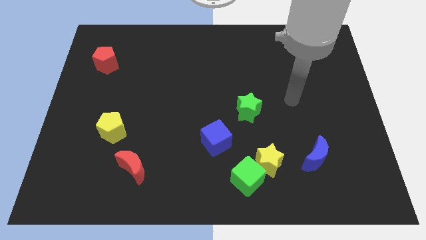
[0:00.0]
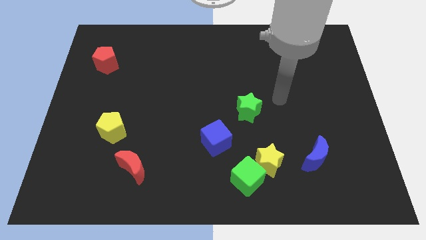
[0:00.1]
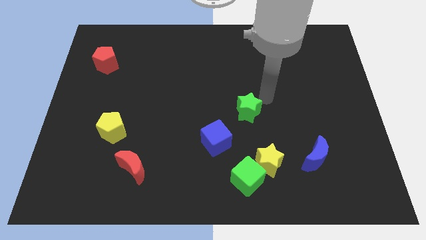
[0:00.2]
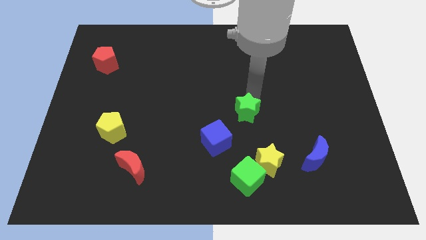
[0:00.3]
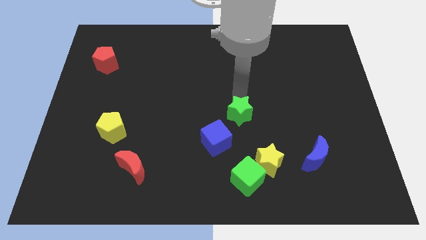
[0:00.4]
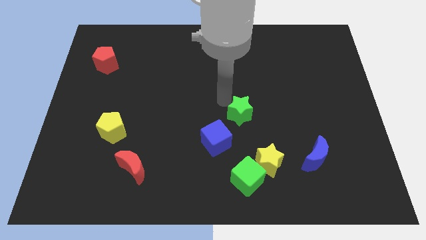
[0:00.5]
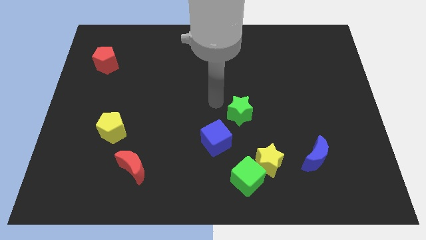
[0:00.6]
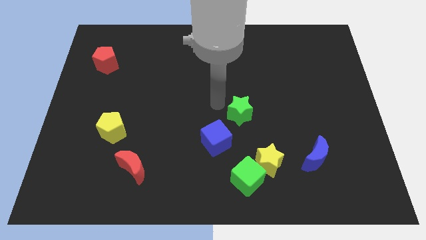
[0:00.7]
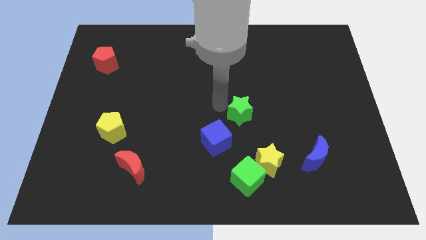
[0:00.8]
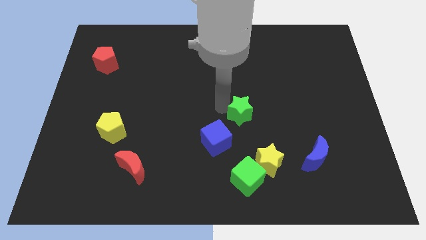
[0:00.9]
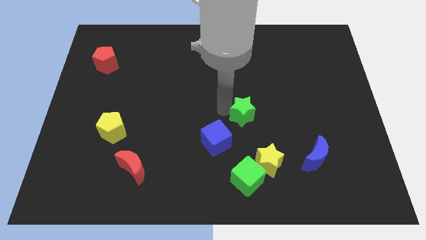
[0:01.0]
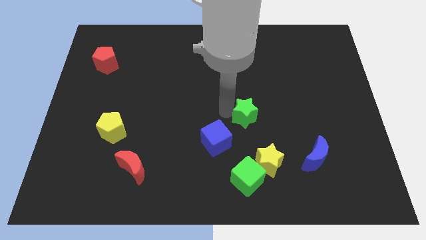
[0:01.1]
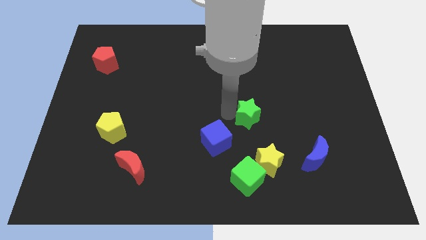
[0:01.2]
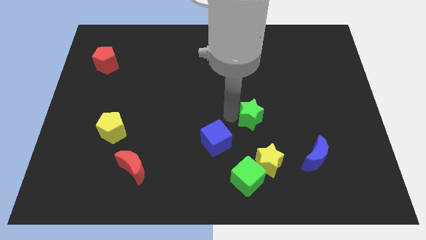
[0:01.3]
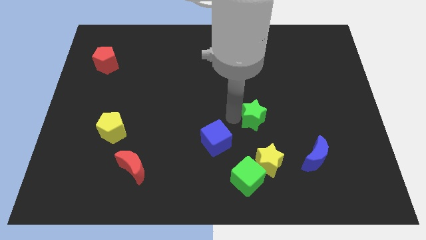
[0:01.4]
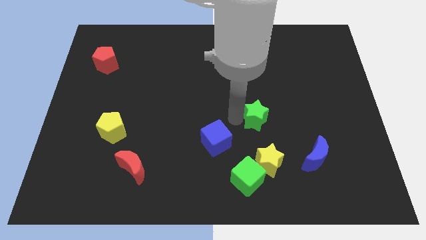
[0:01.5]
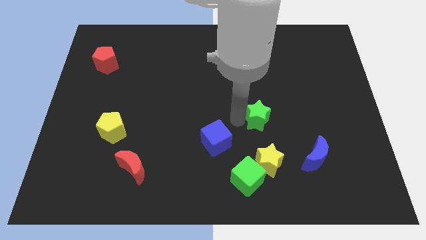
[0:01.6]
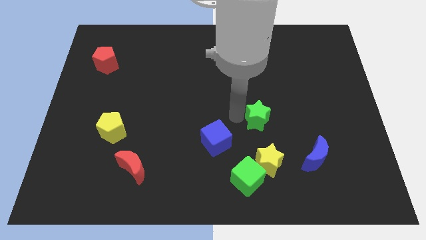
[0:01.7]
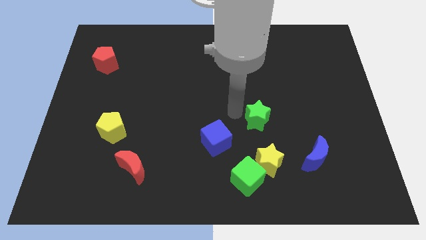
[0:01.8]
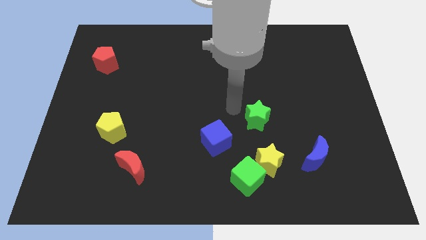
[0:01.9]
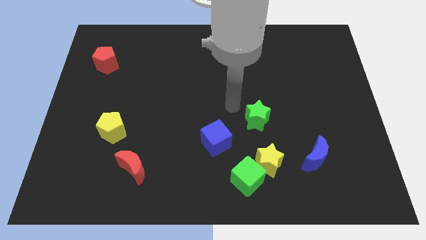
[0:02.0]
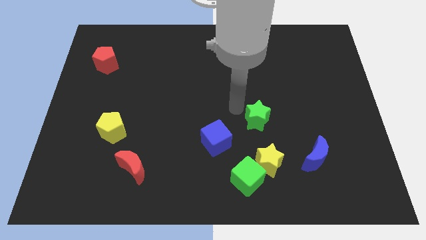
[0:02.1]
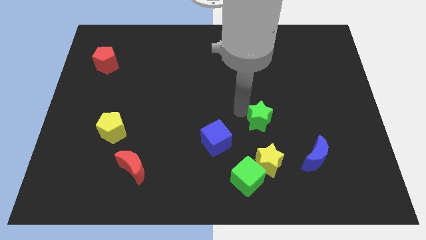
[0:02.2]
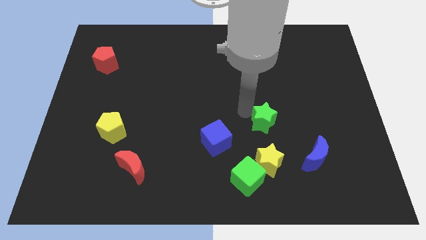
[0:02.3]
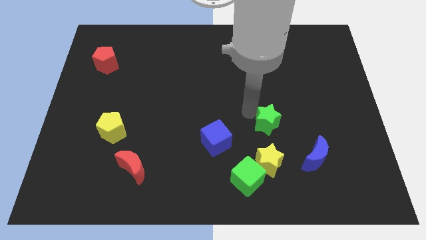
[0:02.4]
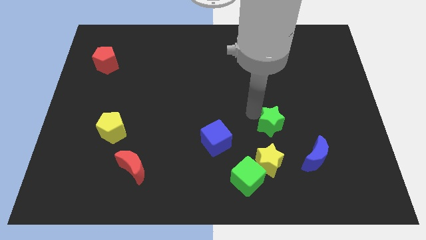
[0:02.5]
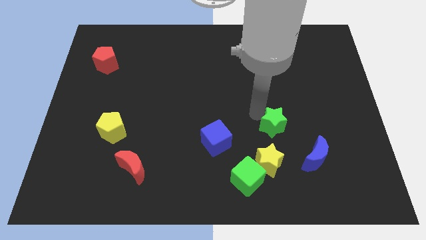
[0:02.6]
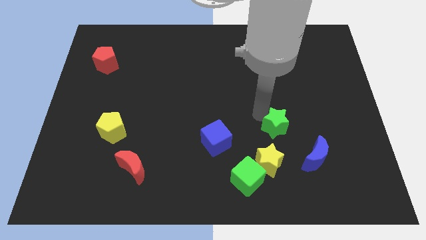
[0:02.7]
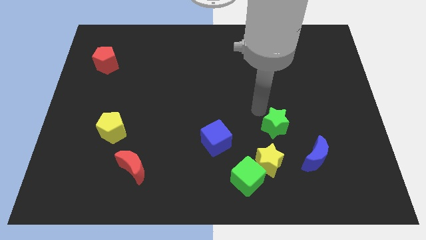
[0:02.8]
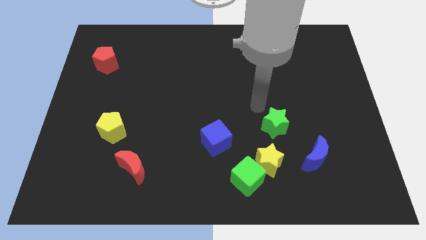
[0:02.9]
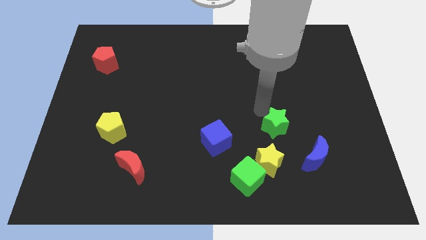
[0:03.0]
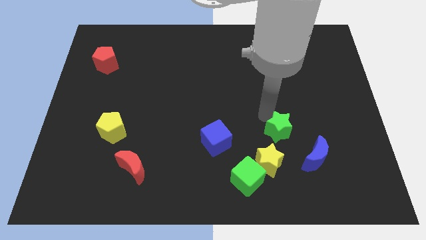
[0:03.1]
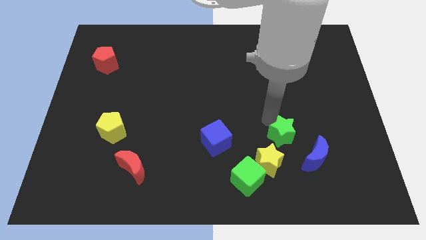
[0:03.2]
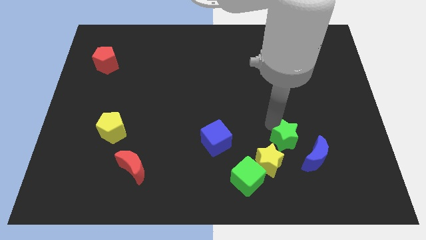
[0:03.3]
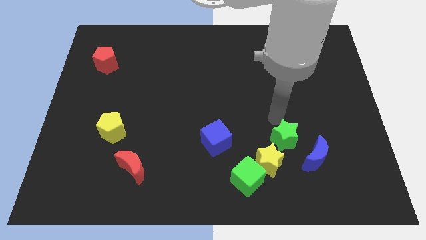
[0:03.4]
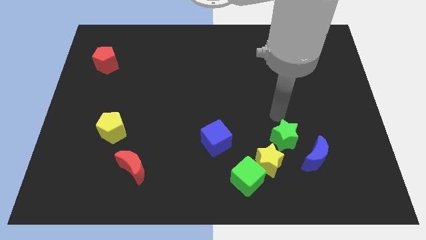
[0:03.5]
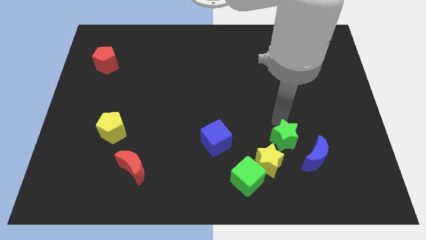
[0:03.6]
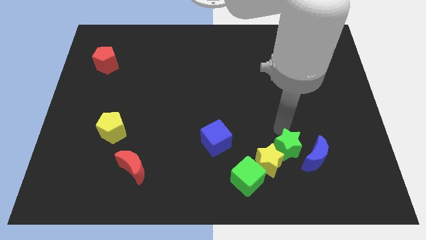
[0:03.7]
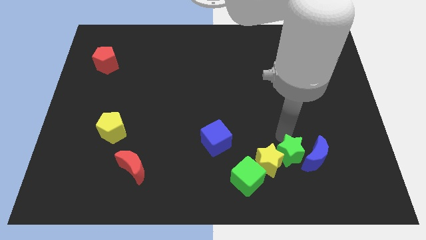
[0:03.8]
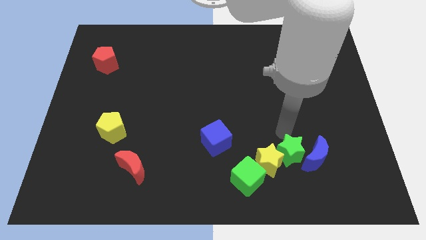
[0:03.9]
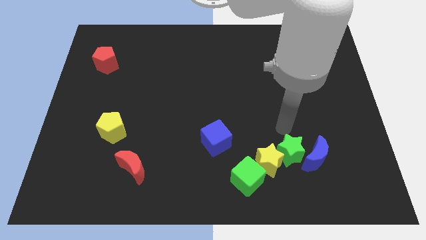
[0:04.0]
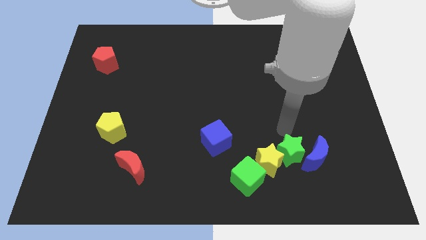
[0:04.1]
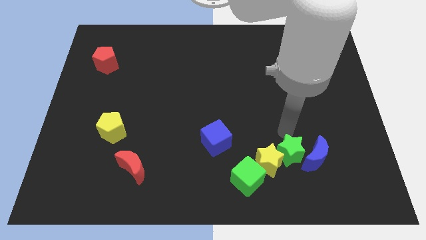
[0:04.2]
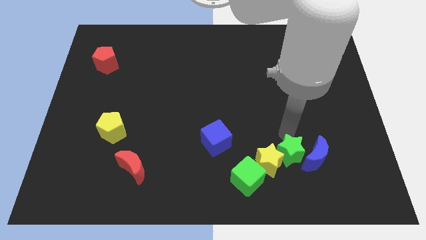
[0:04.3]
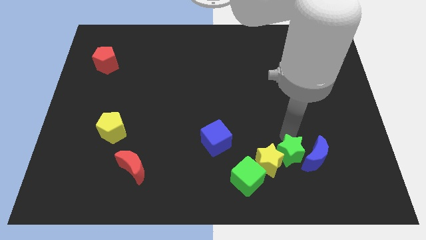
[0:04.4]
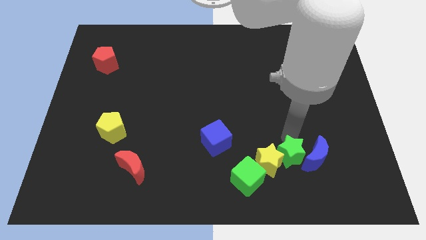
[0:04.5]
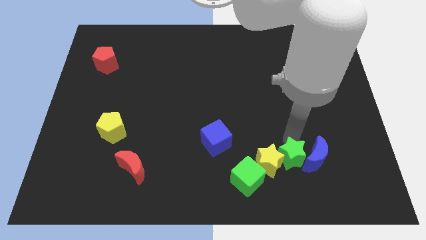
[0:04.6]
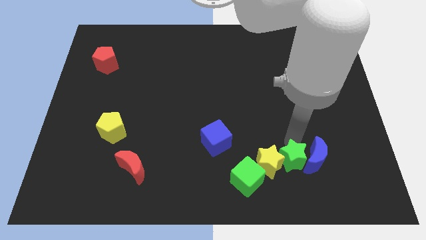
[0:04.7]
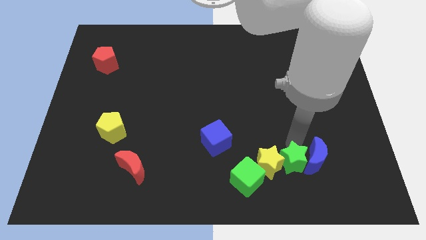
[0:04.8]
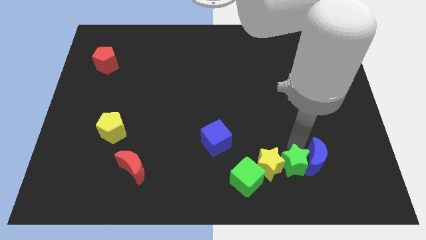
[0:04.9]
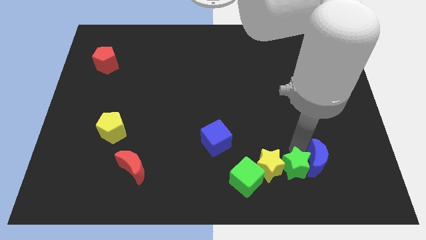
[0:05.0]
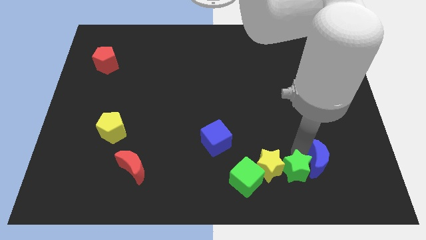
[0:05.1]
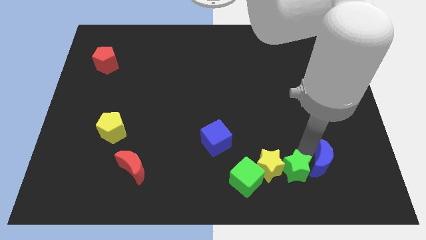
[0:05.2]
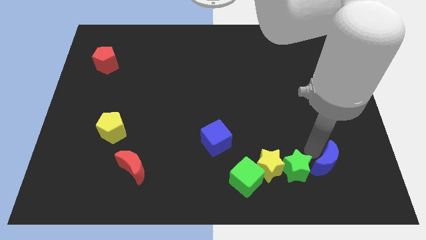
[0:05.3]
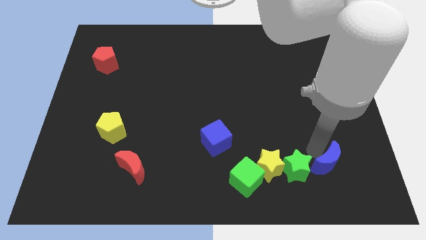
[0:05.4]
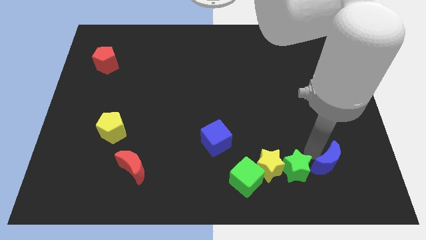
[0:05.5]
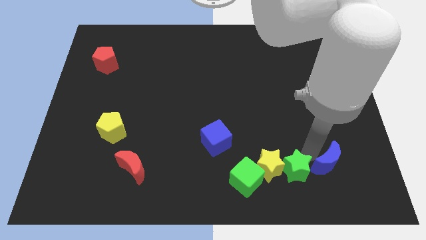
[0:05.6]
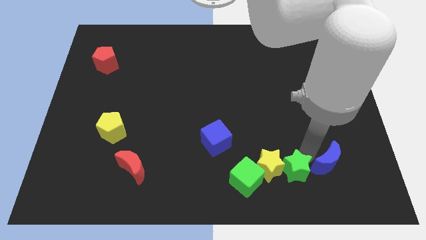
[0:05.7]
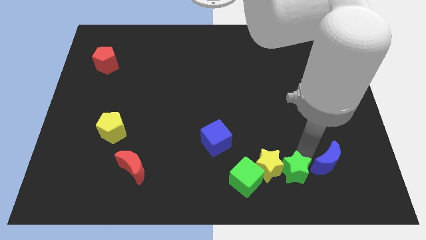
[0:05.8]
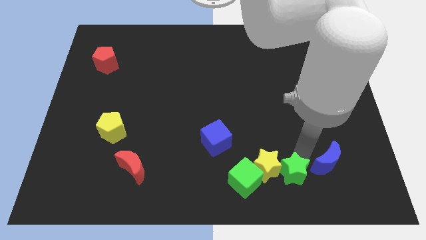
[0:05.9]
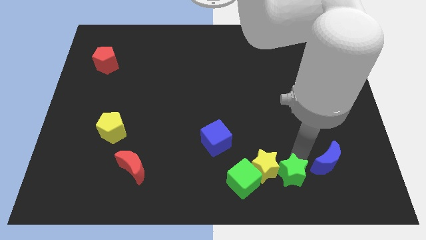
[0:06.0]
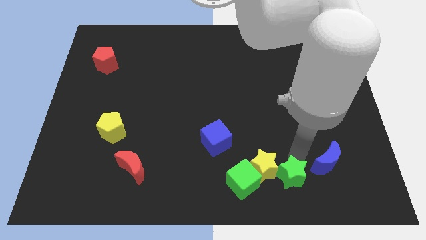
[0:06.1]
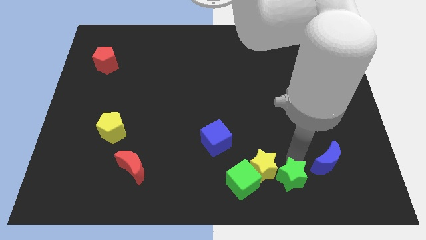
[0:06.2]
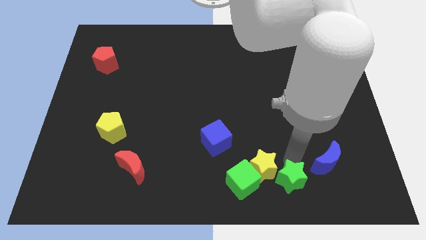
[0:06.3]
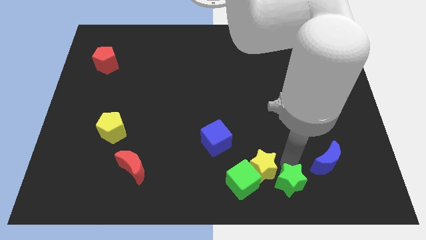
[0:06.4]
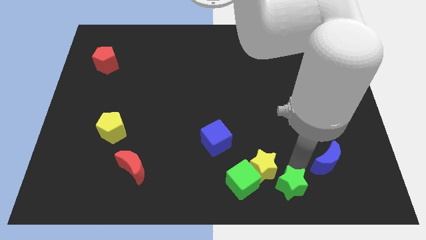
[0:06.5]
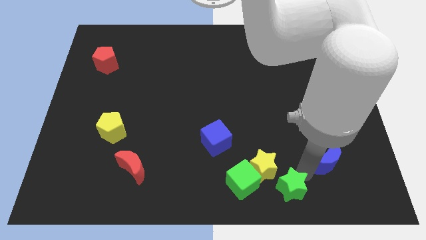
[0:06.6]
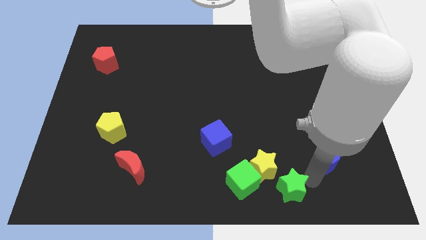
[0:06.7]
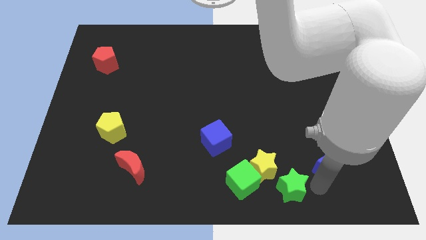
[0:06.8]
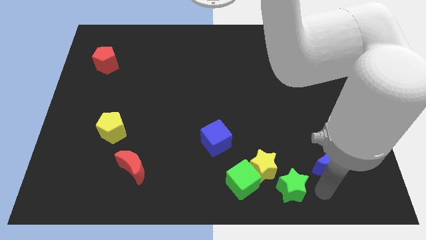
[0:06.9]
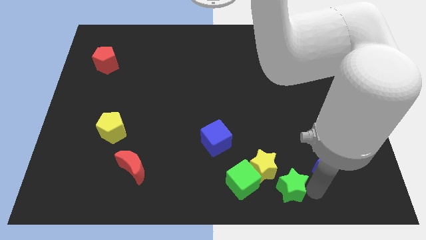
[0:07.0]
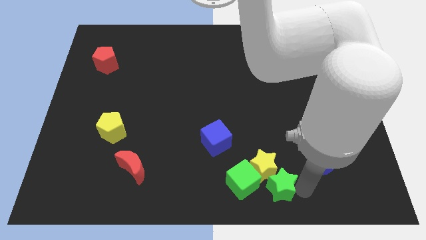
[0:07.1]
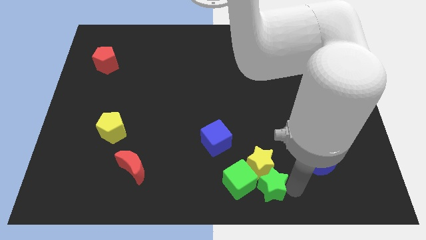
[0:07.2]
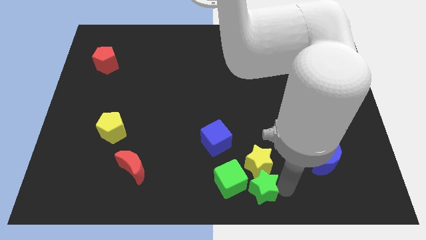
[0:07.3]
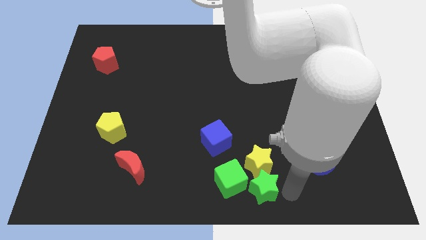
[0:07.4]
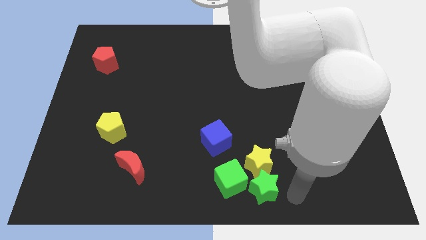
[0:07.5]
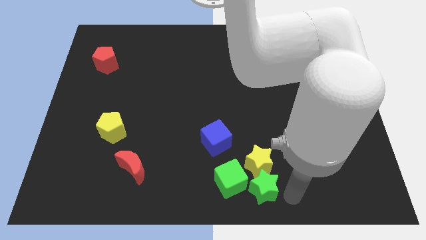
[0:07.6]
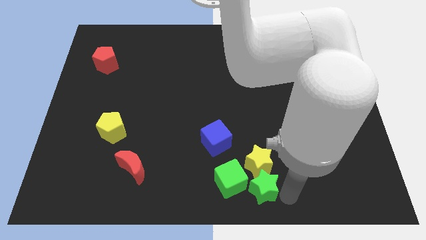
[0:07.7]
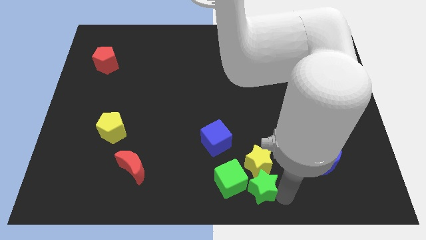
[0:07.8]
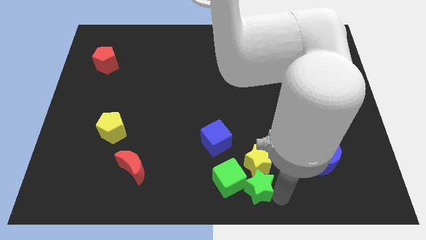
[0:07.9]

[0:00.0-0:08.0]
put the green star next to the green cube
